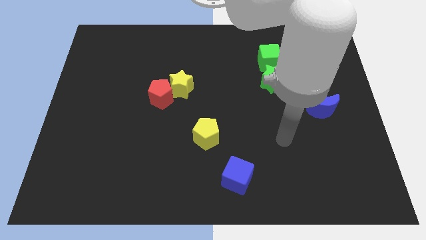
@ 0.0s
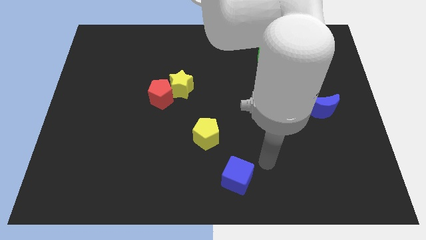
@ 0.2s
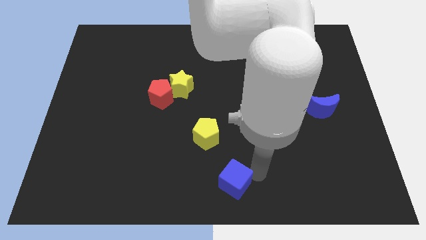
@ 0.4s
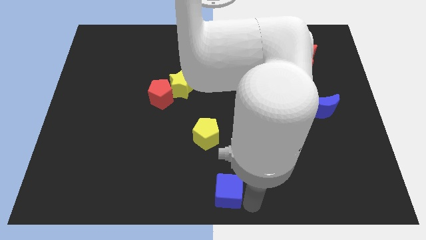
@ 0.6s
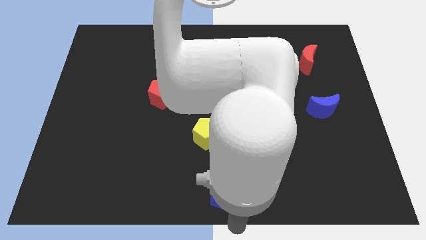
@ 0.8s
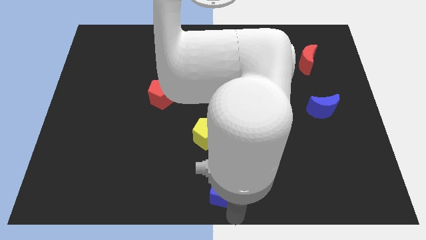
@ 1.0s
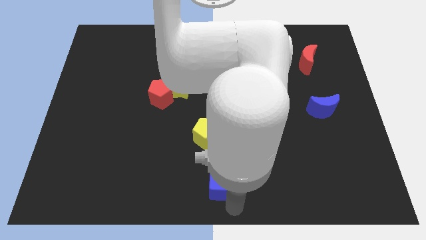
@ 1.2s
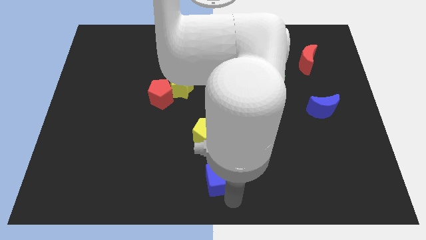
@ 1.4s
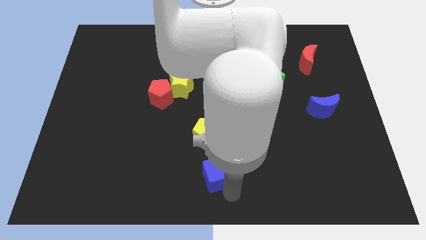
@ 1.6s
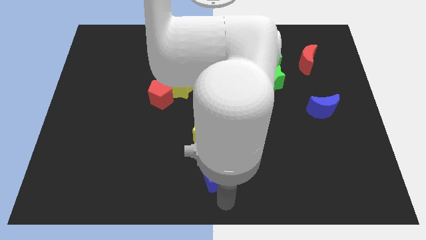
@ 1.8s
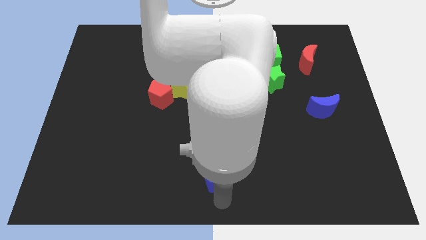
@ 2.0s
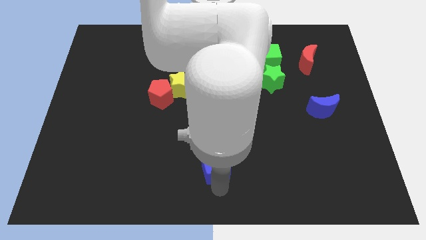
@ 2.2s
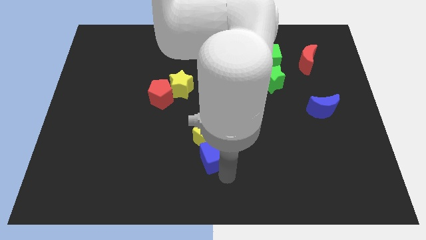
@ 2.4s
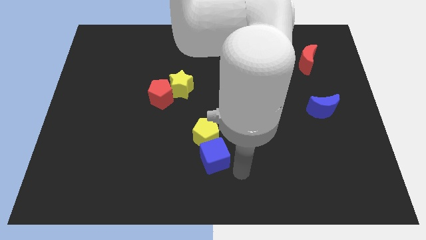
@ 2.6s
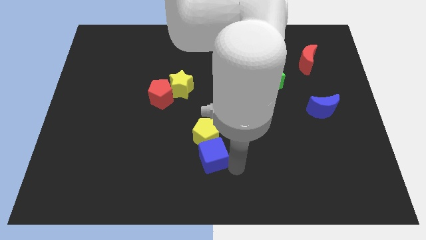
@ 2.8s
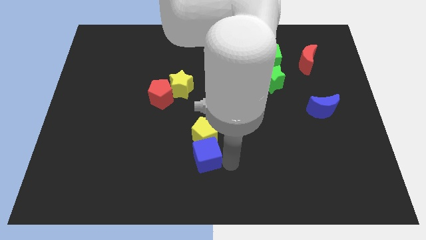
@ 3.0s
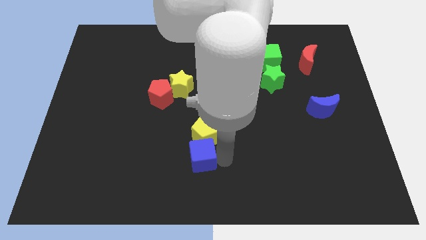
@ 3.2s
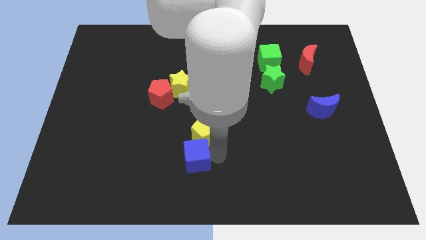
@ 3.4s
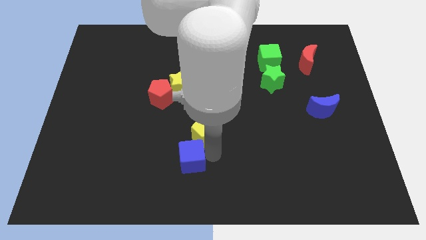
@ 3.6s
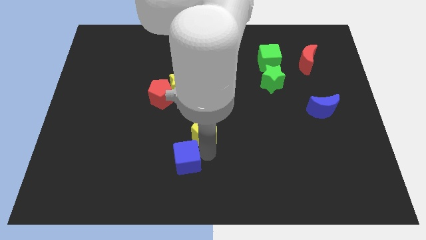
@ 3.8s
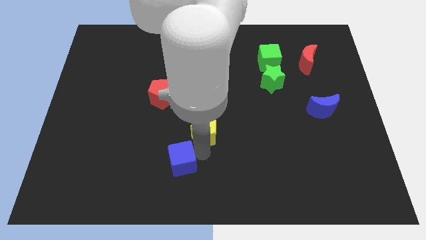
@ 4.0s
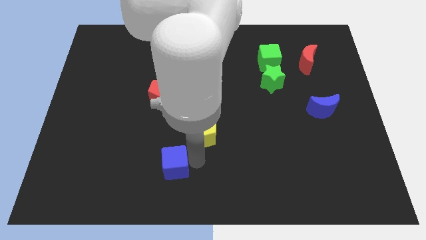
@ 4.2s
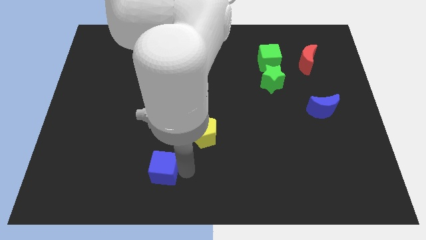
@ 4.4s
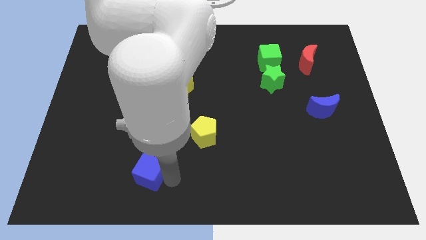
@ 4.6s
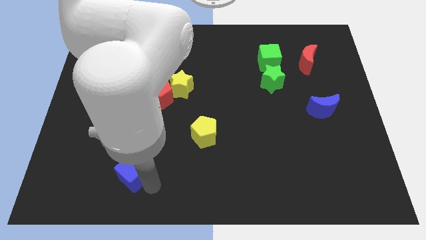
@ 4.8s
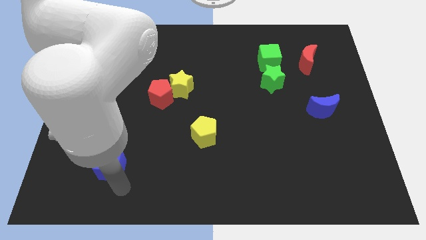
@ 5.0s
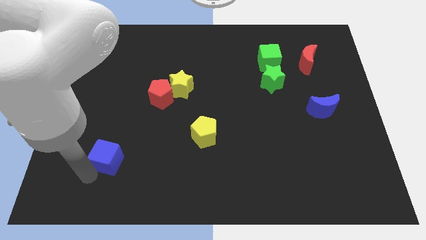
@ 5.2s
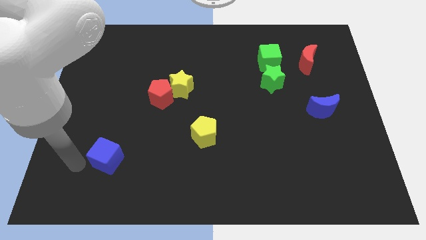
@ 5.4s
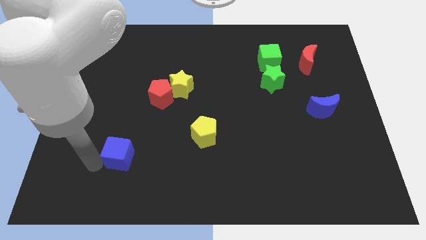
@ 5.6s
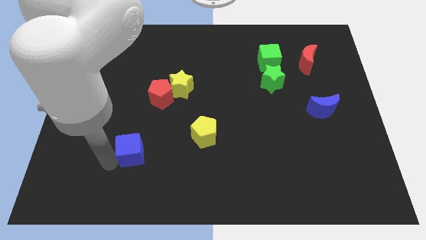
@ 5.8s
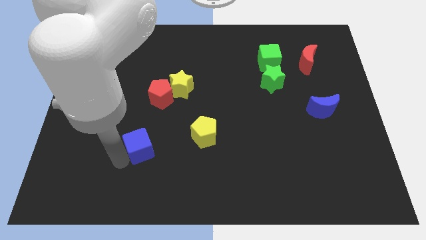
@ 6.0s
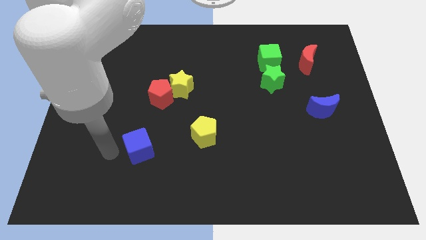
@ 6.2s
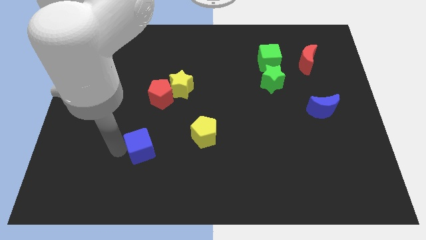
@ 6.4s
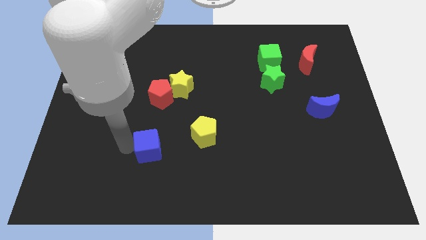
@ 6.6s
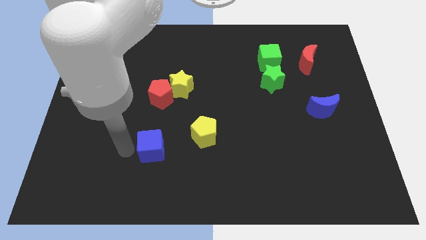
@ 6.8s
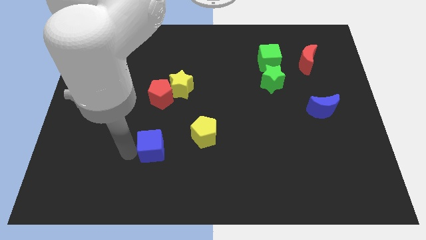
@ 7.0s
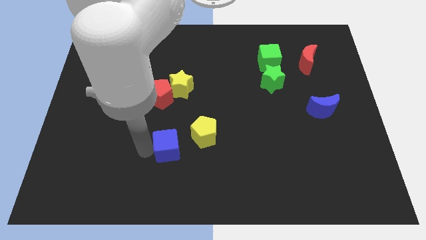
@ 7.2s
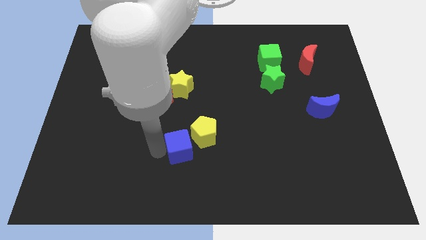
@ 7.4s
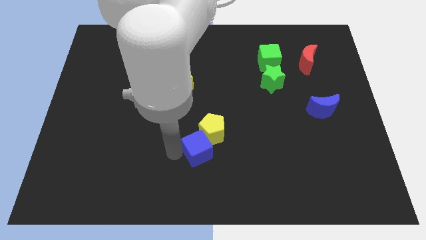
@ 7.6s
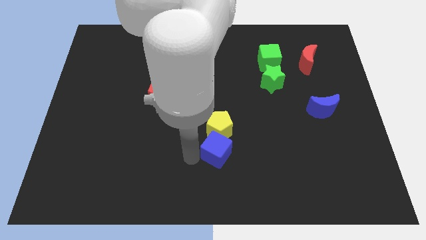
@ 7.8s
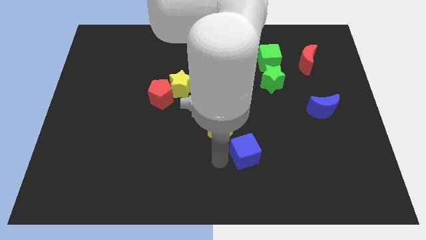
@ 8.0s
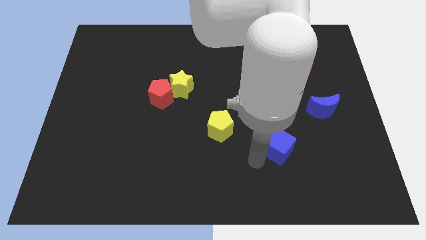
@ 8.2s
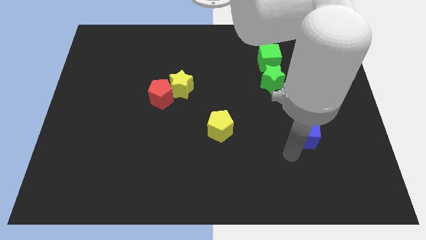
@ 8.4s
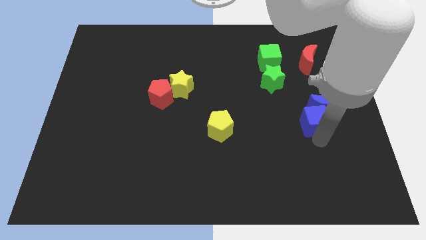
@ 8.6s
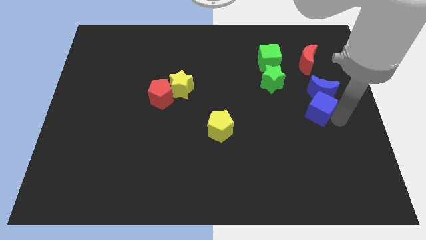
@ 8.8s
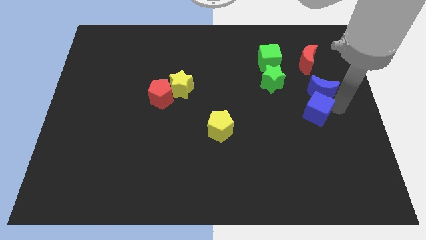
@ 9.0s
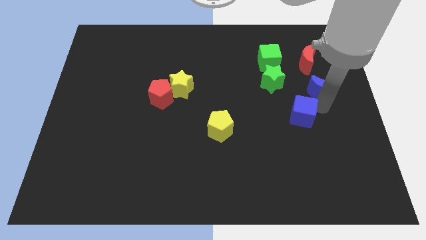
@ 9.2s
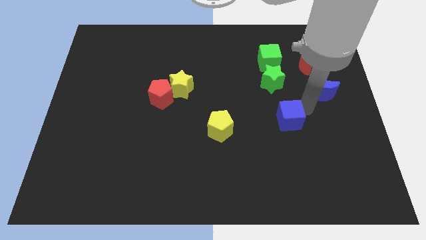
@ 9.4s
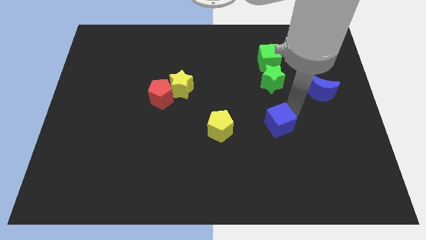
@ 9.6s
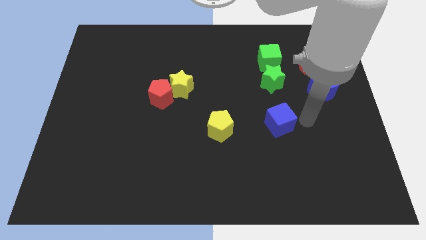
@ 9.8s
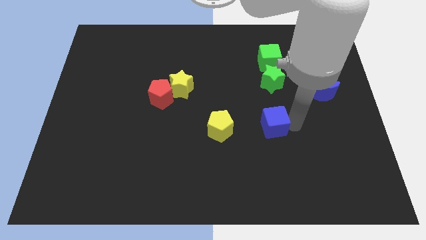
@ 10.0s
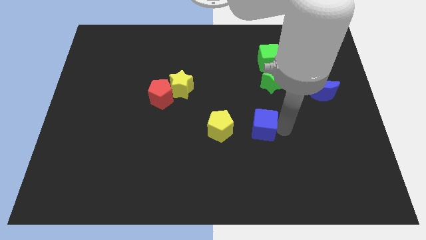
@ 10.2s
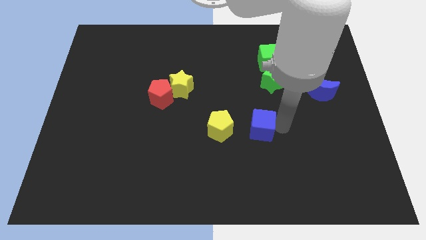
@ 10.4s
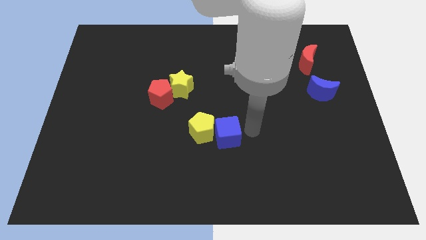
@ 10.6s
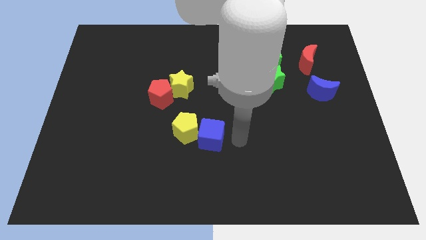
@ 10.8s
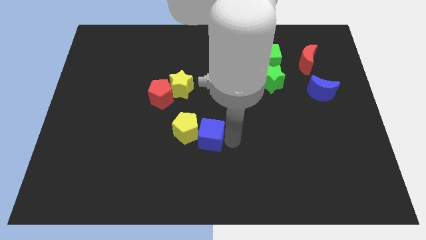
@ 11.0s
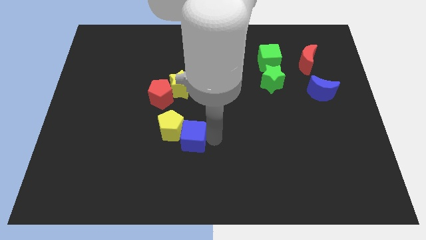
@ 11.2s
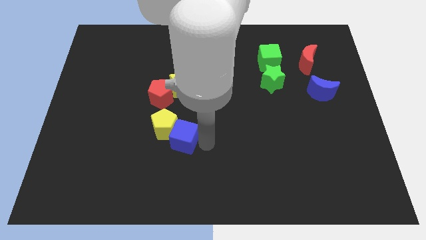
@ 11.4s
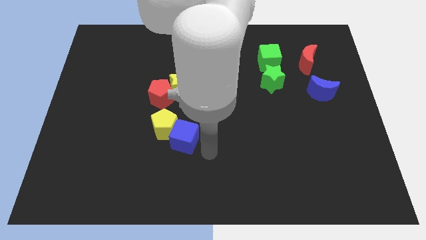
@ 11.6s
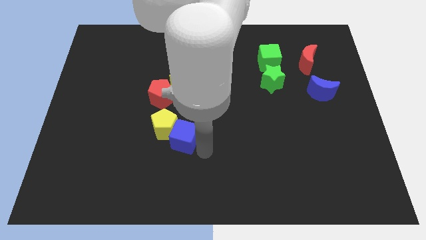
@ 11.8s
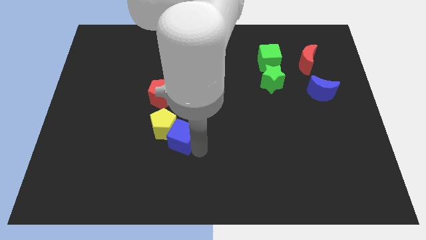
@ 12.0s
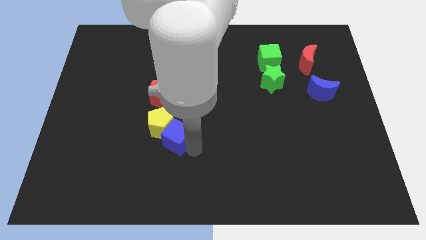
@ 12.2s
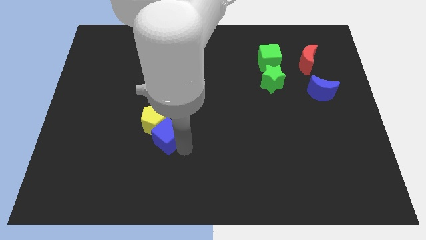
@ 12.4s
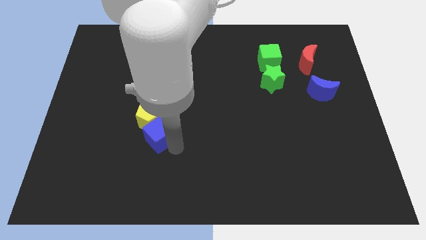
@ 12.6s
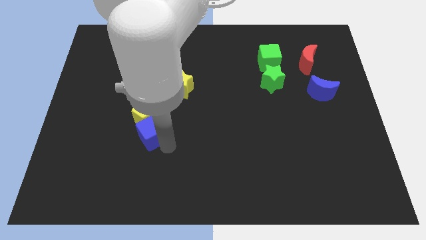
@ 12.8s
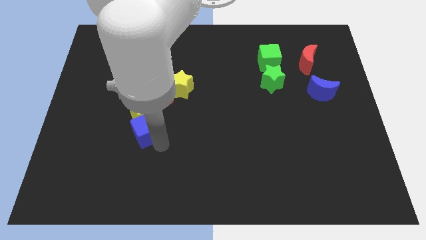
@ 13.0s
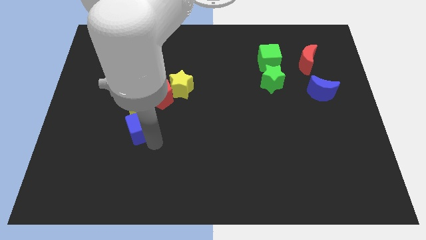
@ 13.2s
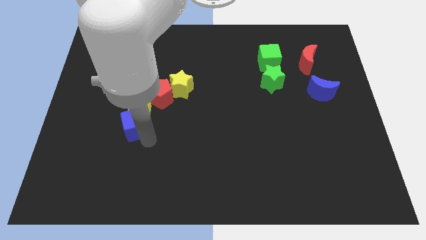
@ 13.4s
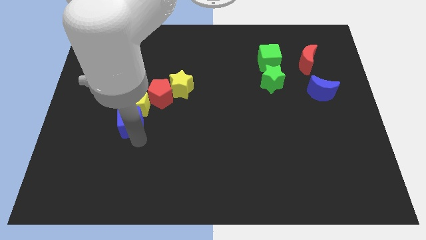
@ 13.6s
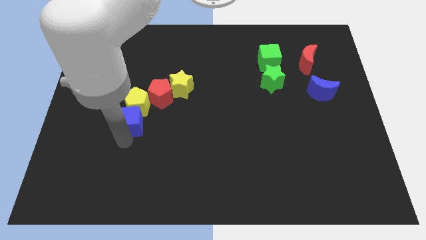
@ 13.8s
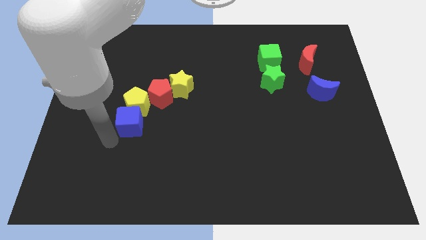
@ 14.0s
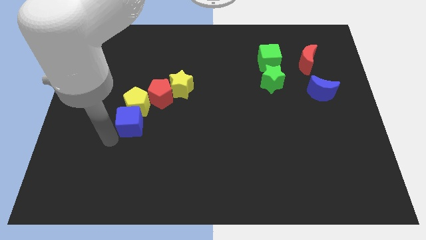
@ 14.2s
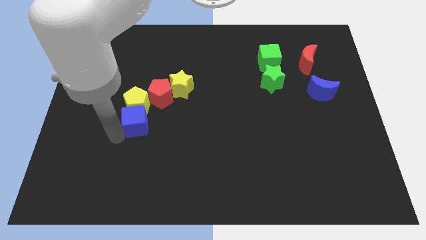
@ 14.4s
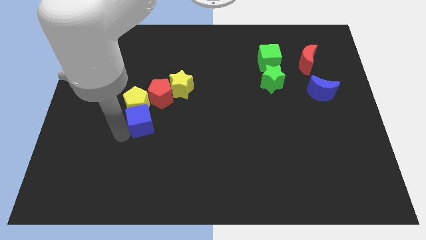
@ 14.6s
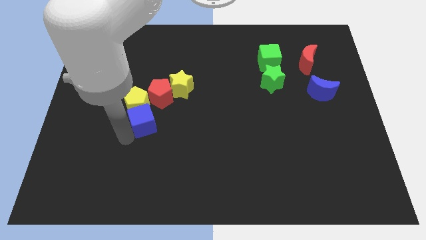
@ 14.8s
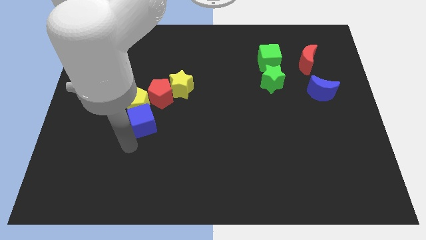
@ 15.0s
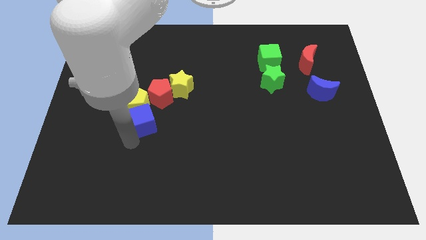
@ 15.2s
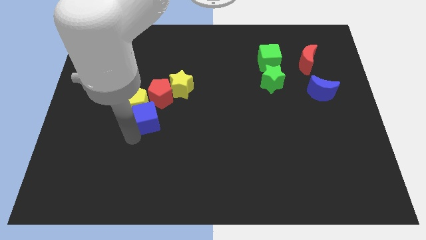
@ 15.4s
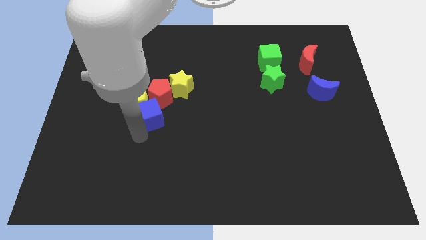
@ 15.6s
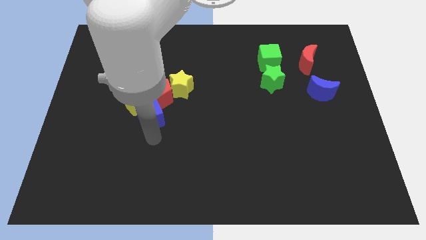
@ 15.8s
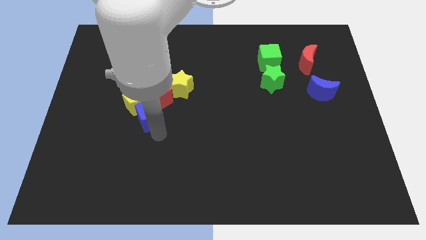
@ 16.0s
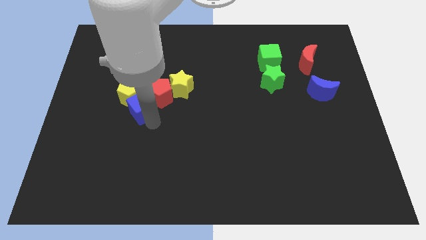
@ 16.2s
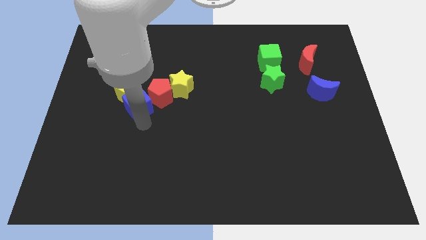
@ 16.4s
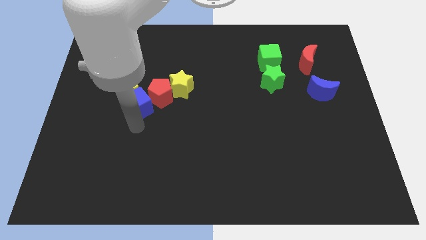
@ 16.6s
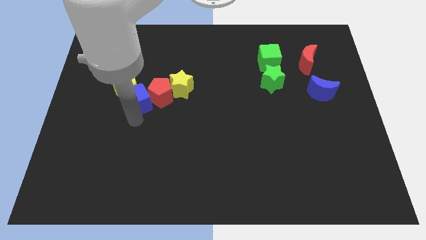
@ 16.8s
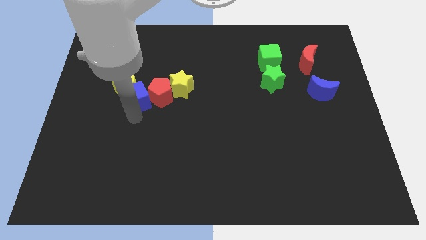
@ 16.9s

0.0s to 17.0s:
put the blue cube diagonally up and to the left of the red pentagon
